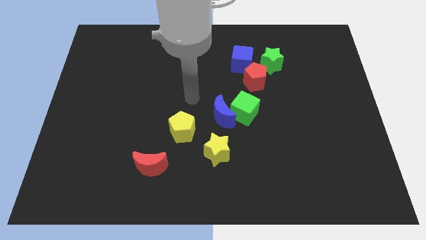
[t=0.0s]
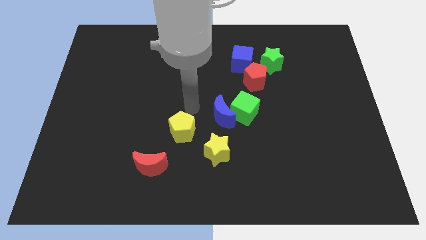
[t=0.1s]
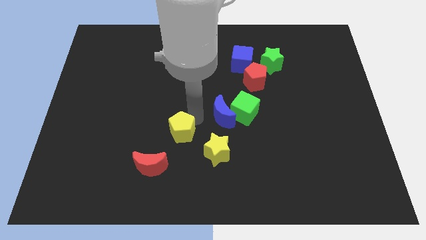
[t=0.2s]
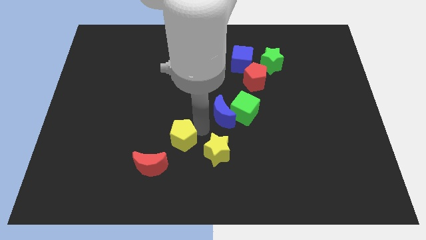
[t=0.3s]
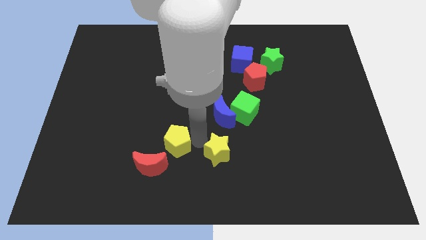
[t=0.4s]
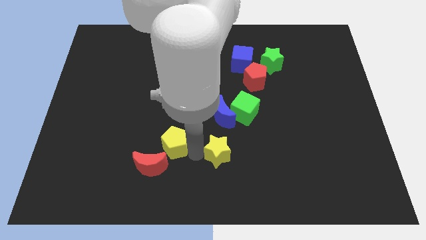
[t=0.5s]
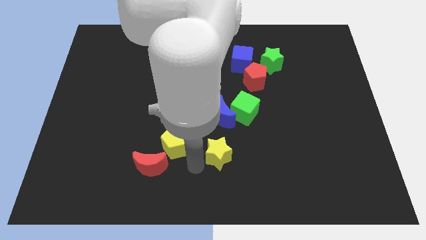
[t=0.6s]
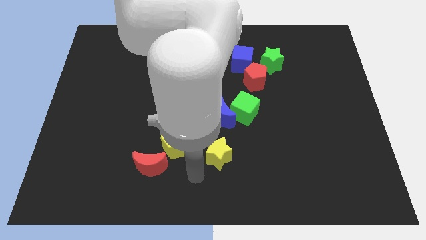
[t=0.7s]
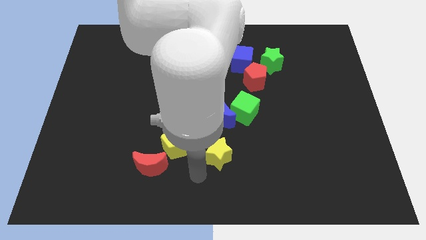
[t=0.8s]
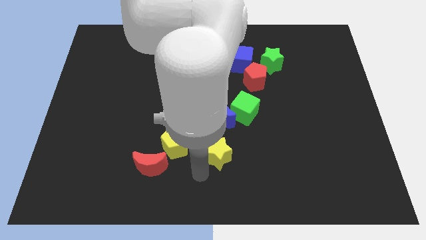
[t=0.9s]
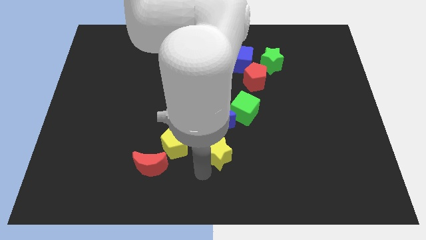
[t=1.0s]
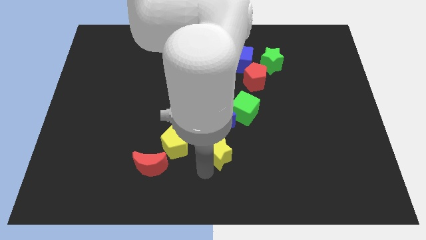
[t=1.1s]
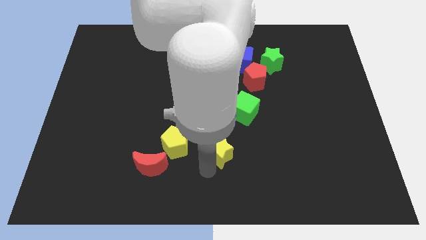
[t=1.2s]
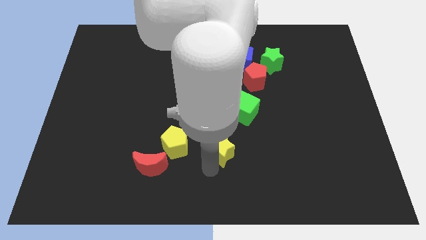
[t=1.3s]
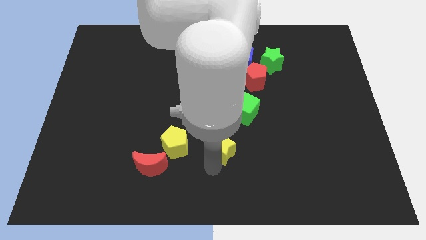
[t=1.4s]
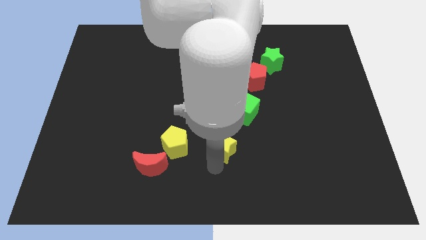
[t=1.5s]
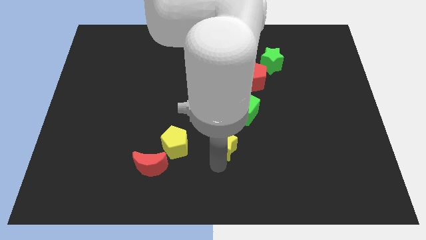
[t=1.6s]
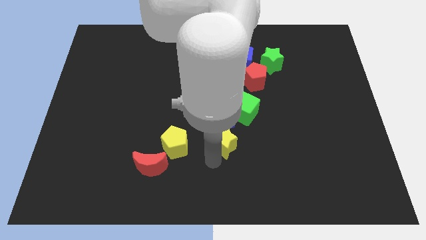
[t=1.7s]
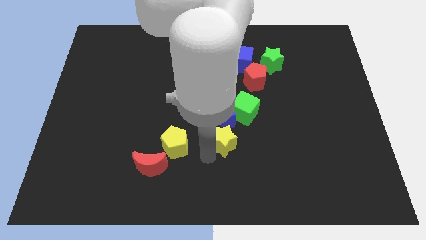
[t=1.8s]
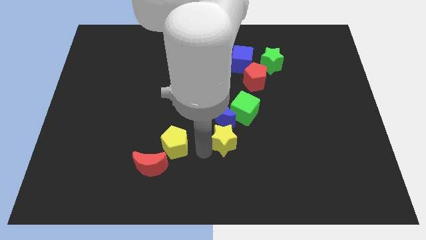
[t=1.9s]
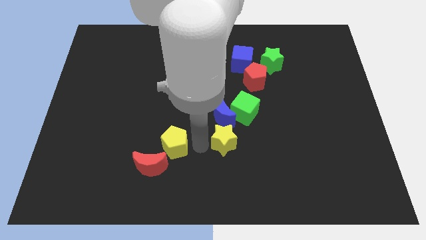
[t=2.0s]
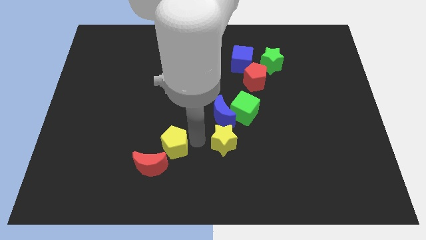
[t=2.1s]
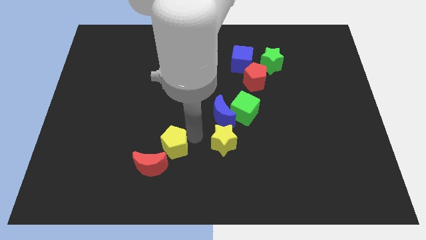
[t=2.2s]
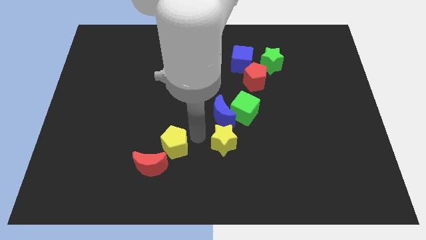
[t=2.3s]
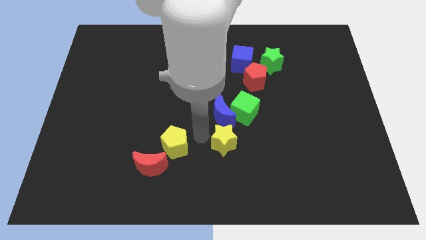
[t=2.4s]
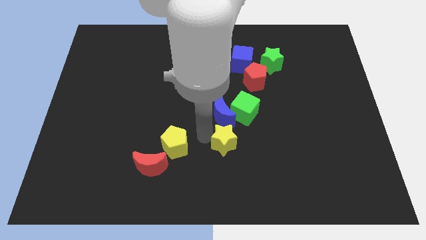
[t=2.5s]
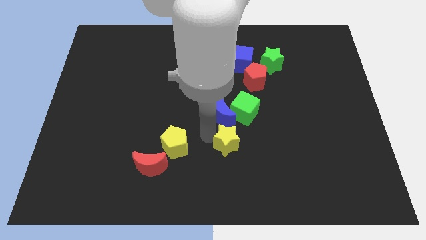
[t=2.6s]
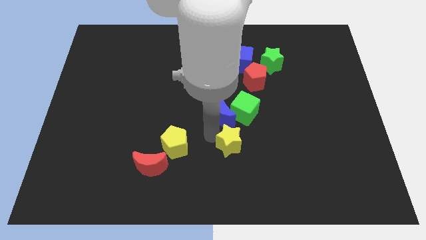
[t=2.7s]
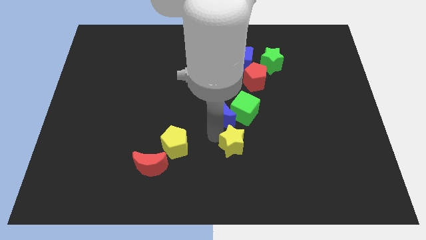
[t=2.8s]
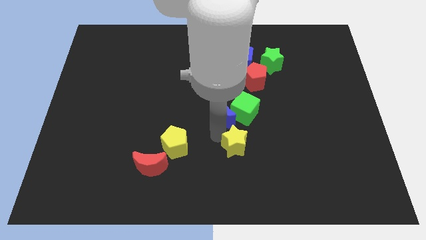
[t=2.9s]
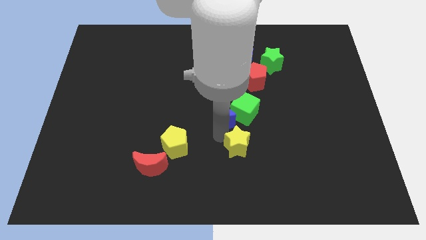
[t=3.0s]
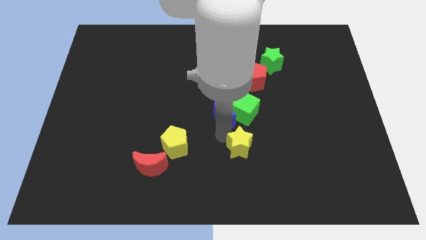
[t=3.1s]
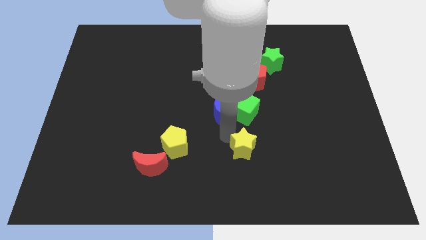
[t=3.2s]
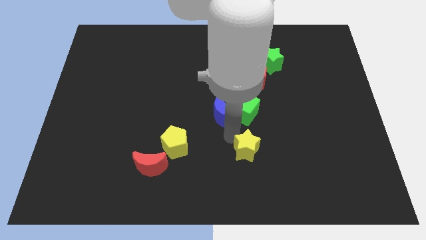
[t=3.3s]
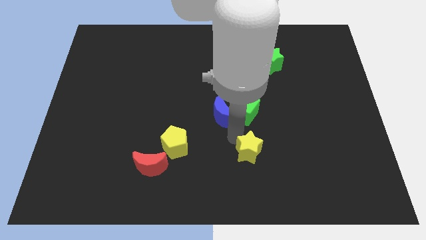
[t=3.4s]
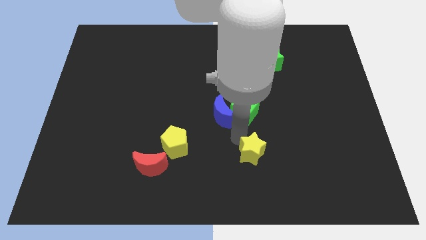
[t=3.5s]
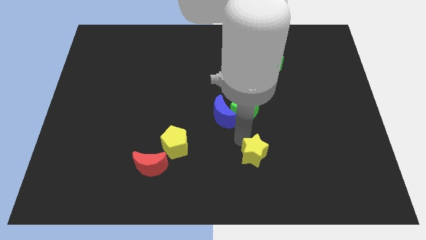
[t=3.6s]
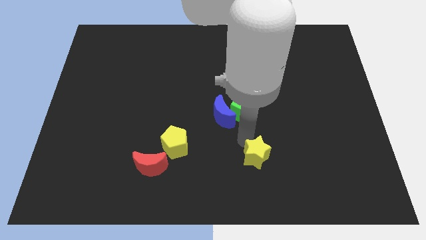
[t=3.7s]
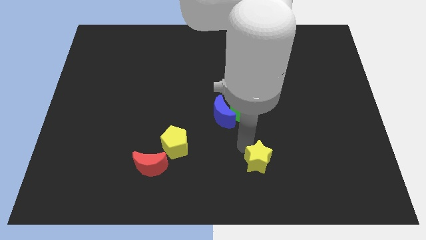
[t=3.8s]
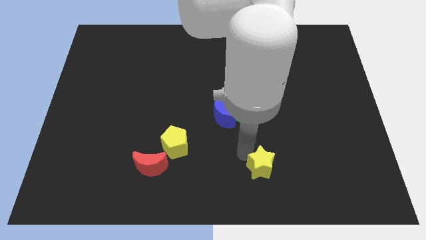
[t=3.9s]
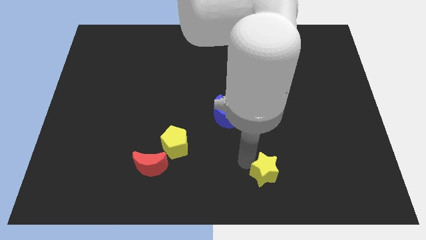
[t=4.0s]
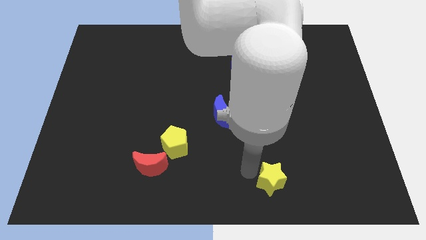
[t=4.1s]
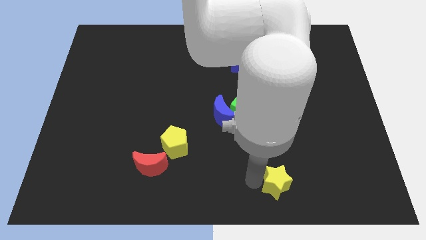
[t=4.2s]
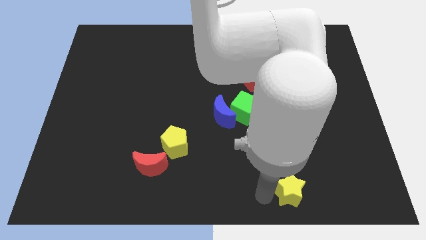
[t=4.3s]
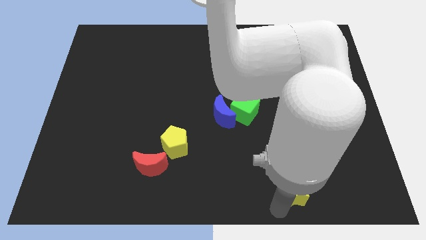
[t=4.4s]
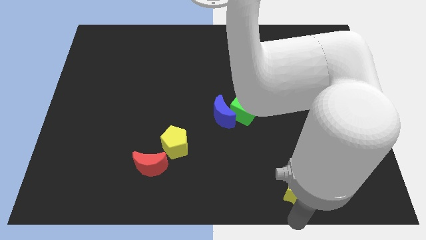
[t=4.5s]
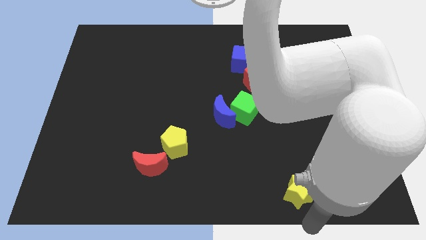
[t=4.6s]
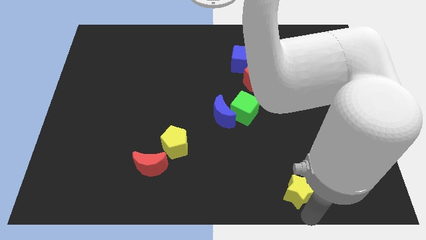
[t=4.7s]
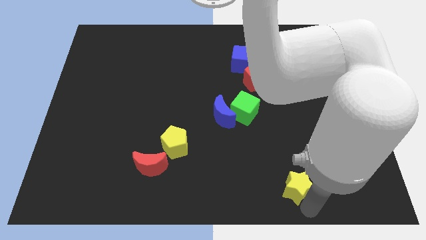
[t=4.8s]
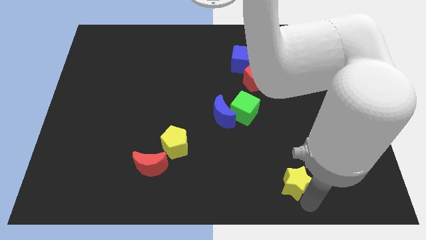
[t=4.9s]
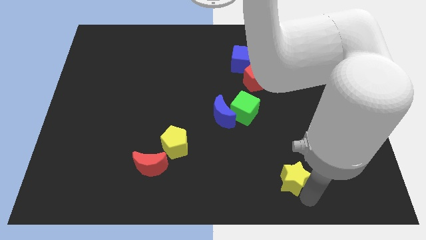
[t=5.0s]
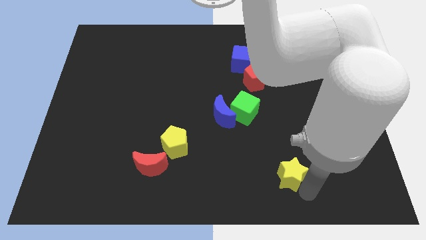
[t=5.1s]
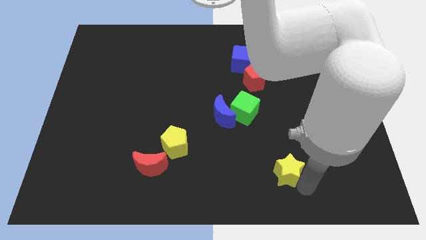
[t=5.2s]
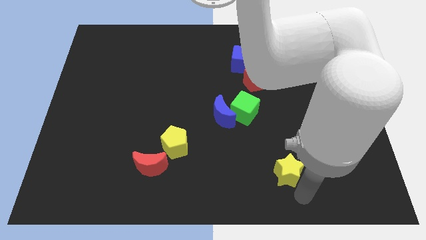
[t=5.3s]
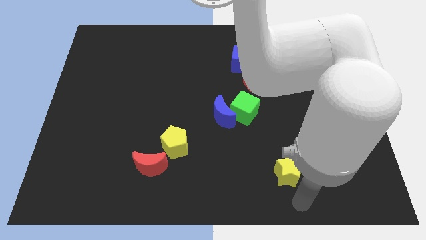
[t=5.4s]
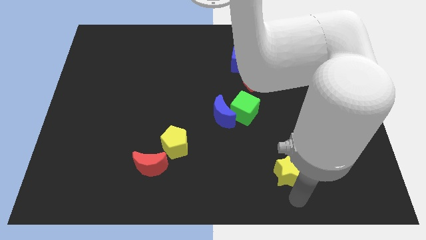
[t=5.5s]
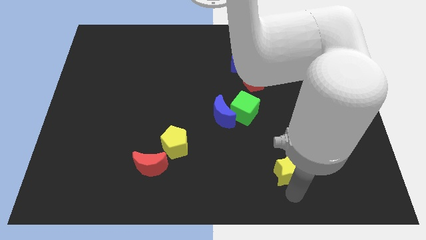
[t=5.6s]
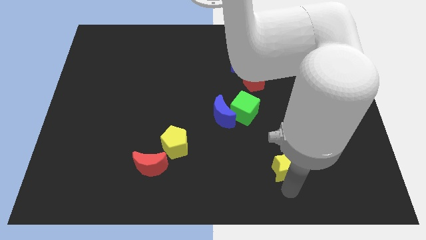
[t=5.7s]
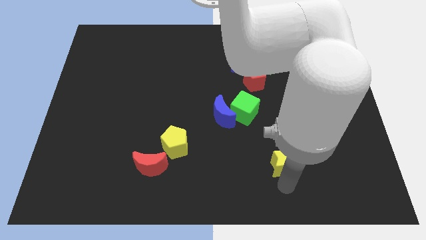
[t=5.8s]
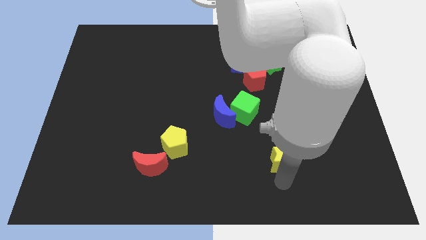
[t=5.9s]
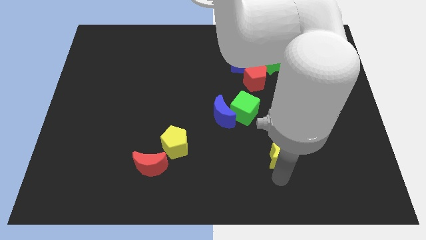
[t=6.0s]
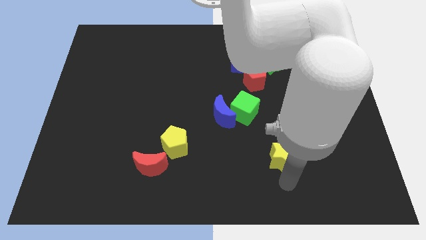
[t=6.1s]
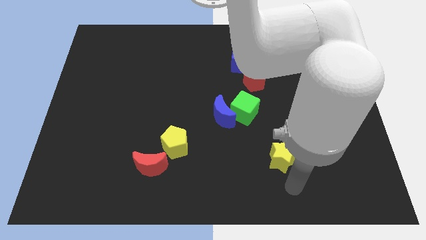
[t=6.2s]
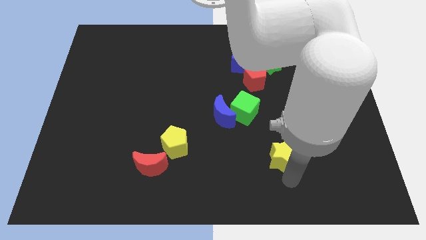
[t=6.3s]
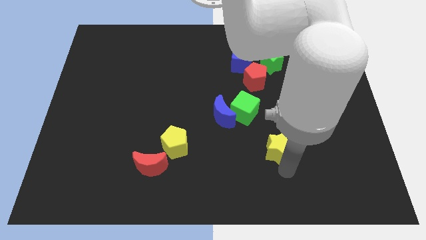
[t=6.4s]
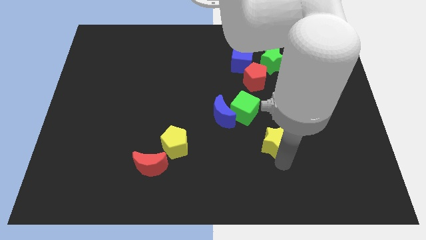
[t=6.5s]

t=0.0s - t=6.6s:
push the yellow star diagonally down and to the right of the green cube

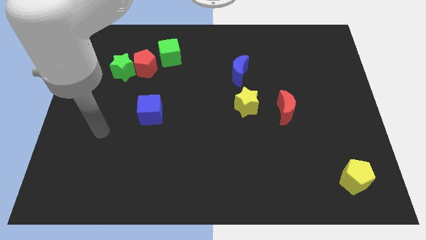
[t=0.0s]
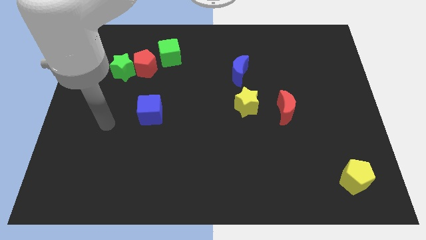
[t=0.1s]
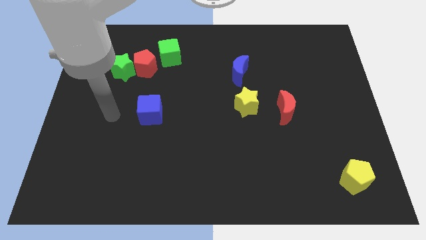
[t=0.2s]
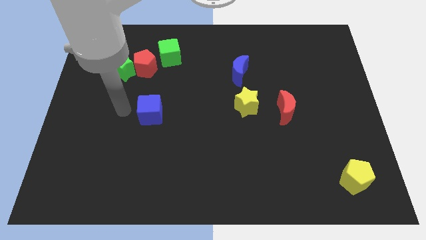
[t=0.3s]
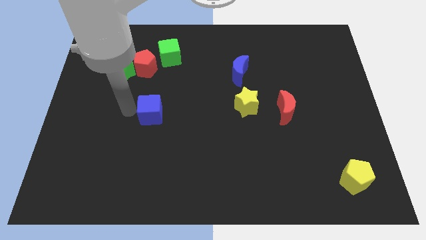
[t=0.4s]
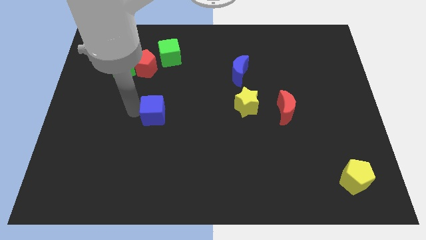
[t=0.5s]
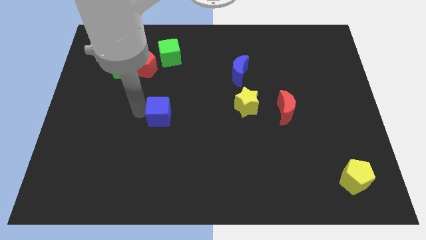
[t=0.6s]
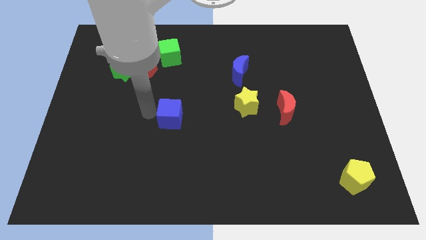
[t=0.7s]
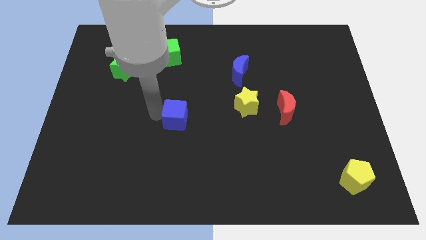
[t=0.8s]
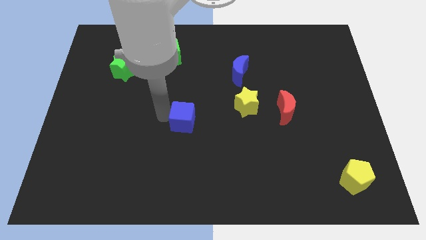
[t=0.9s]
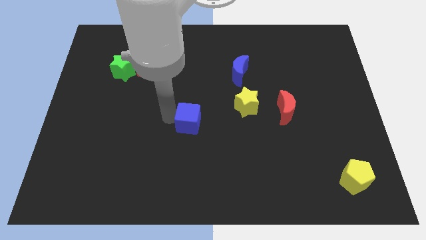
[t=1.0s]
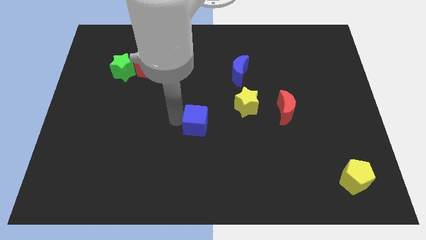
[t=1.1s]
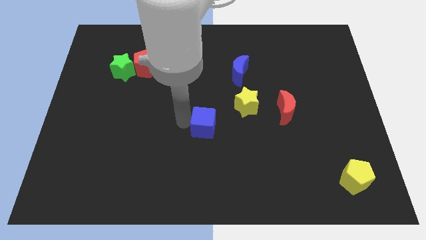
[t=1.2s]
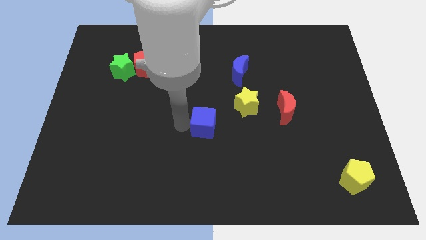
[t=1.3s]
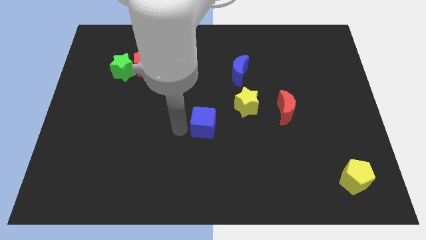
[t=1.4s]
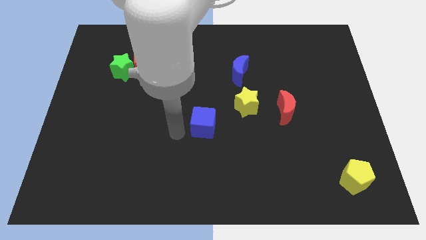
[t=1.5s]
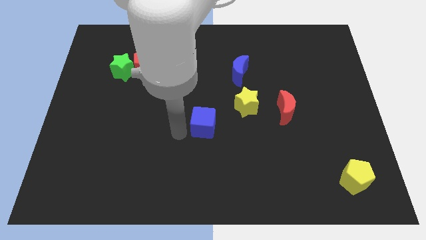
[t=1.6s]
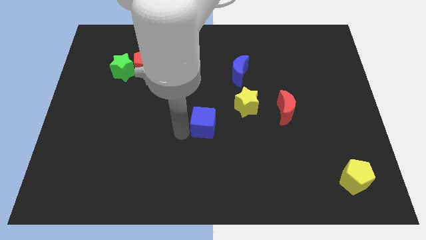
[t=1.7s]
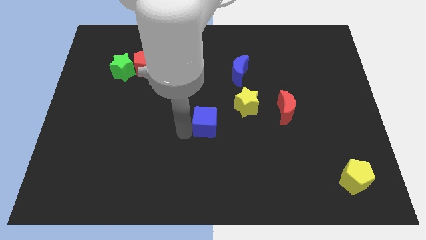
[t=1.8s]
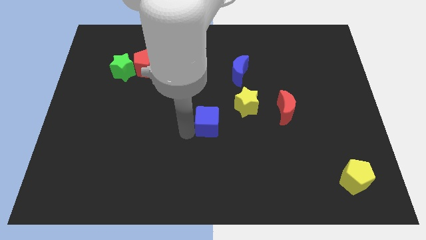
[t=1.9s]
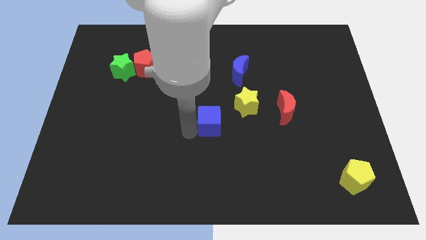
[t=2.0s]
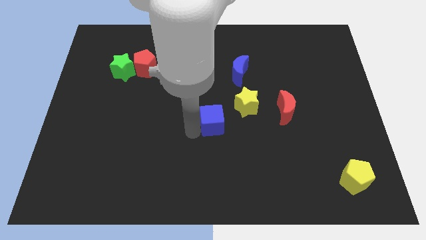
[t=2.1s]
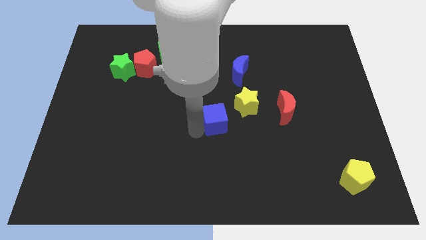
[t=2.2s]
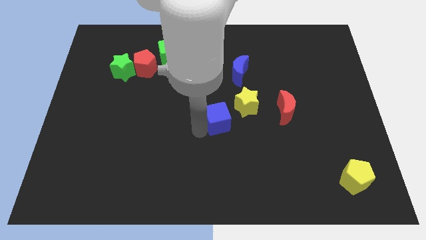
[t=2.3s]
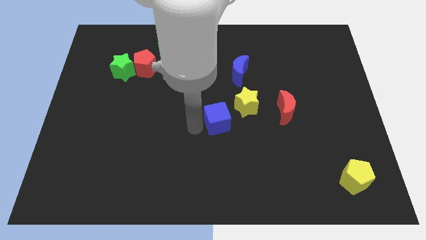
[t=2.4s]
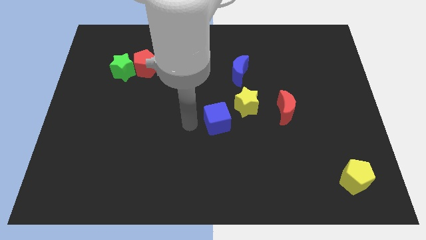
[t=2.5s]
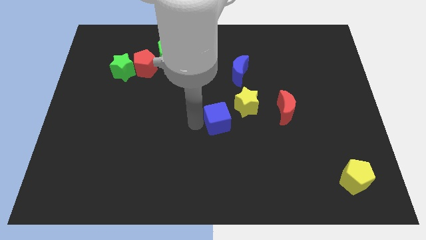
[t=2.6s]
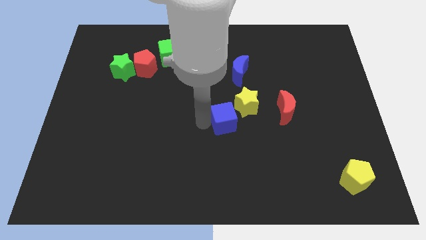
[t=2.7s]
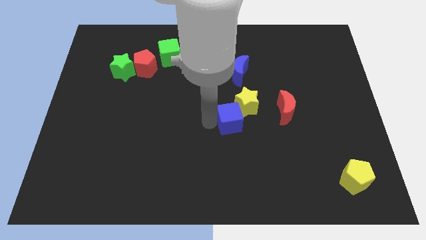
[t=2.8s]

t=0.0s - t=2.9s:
move the blue cube below the blue moon
